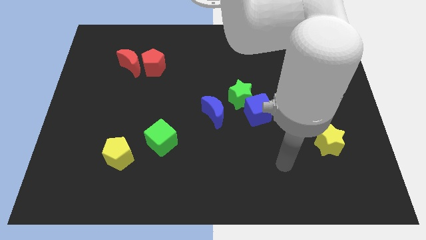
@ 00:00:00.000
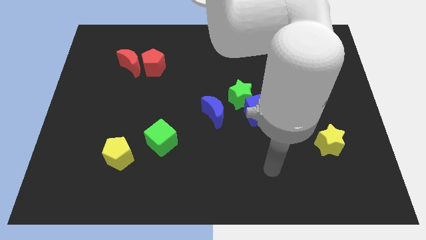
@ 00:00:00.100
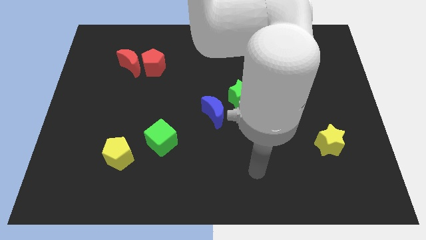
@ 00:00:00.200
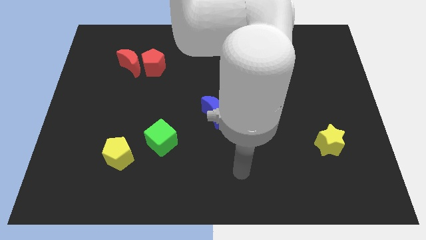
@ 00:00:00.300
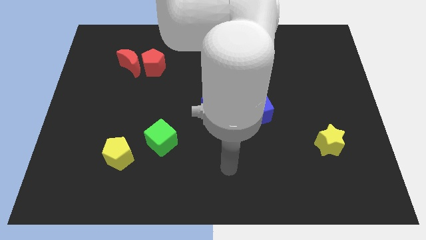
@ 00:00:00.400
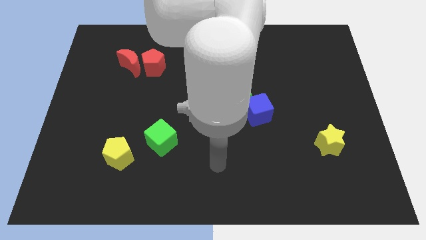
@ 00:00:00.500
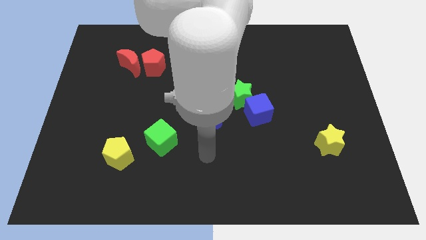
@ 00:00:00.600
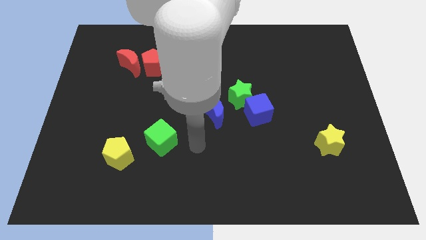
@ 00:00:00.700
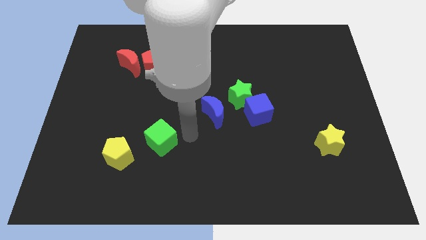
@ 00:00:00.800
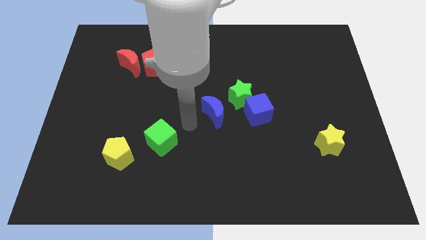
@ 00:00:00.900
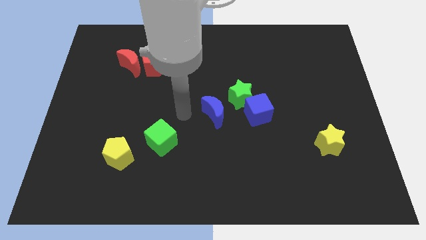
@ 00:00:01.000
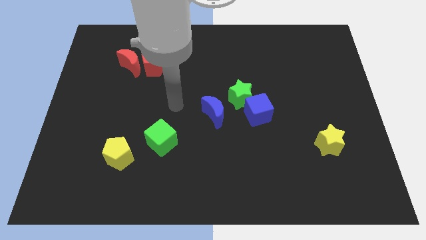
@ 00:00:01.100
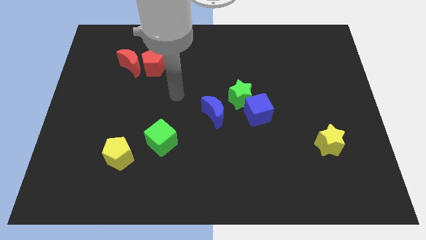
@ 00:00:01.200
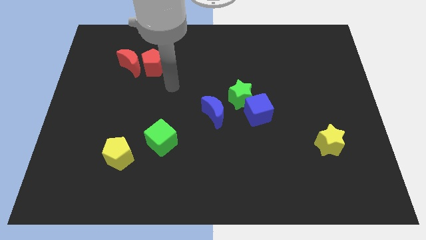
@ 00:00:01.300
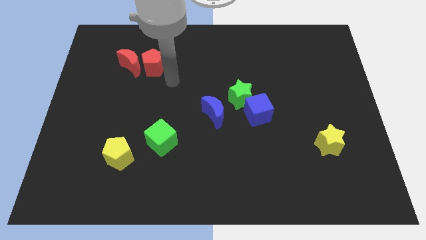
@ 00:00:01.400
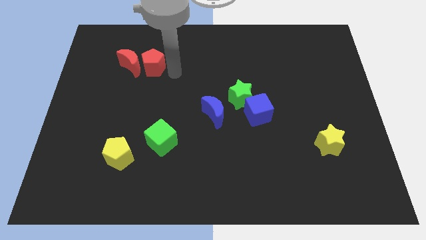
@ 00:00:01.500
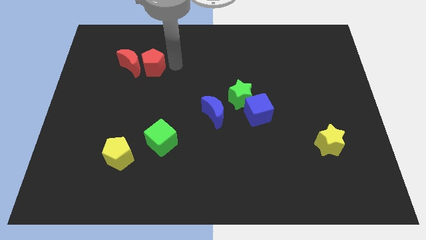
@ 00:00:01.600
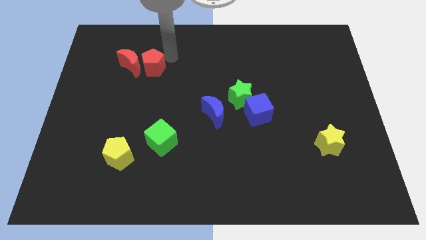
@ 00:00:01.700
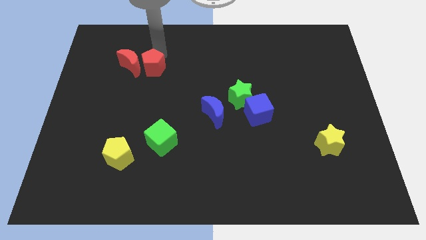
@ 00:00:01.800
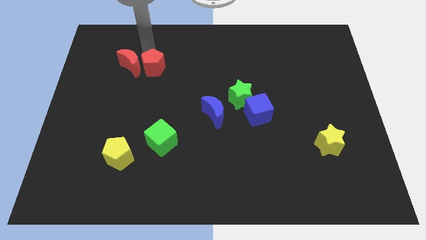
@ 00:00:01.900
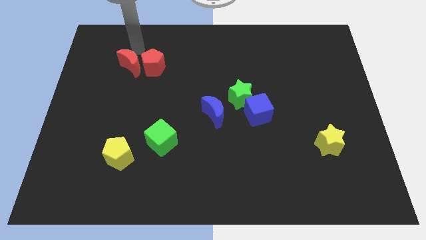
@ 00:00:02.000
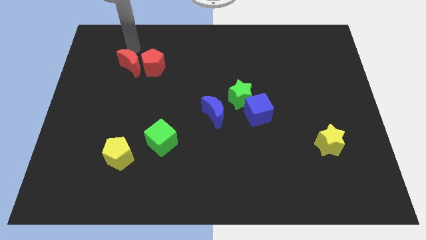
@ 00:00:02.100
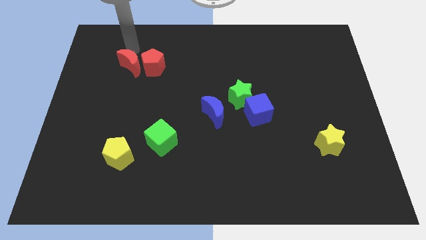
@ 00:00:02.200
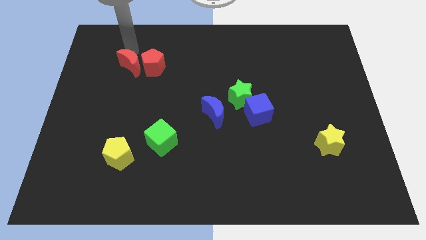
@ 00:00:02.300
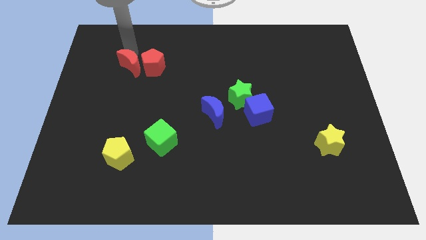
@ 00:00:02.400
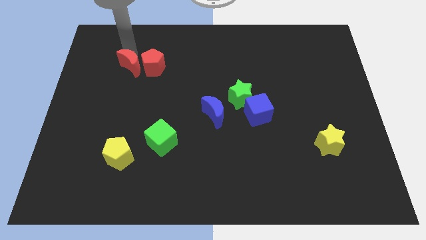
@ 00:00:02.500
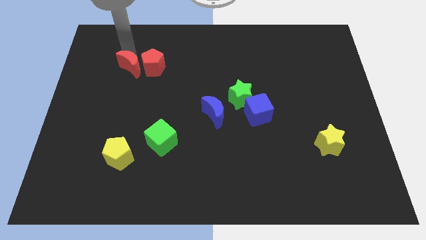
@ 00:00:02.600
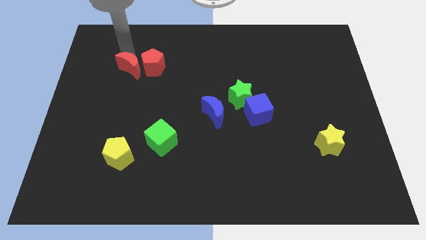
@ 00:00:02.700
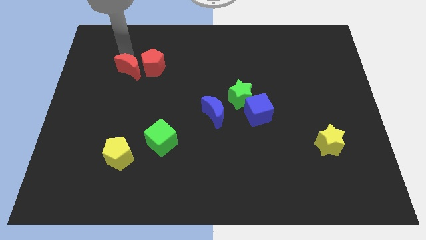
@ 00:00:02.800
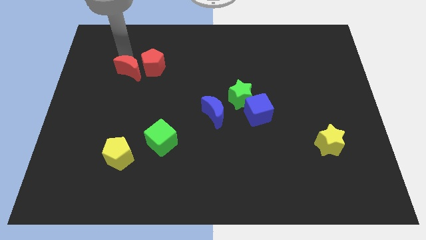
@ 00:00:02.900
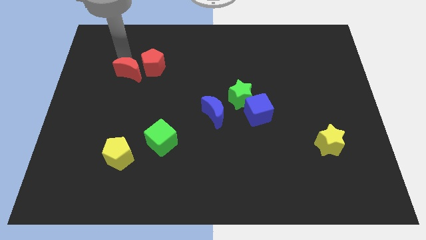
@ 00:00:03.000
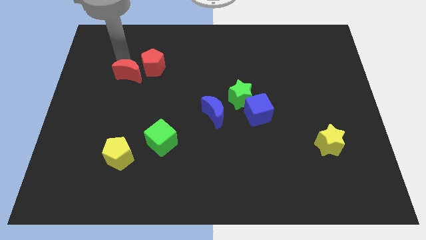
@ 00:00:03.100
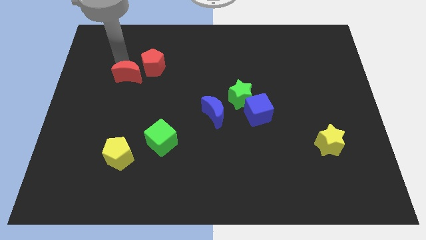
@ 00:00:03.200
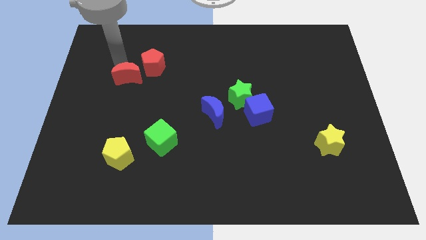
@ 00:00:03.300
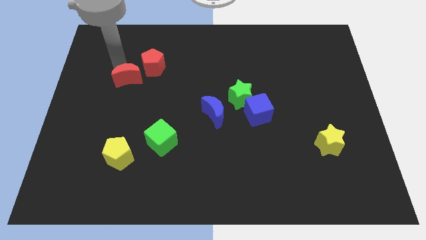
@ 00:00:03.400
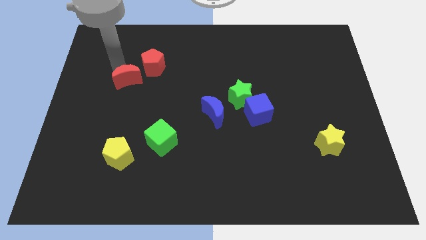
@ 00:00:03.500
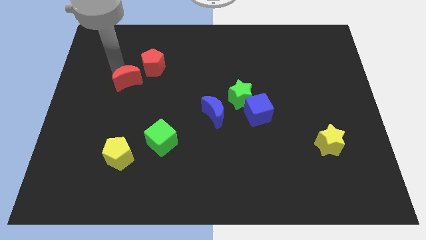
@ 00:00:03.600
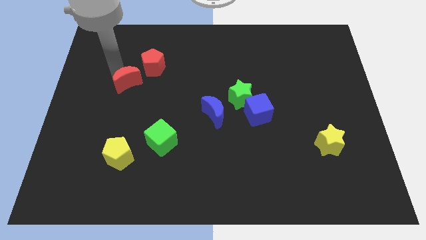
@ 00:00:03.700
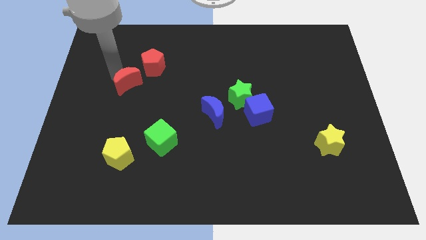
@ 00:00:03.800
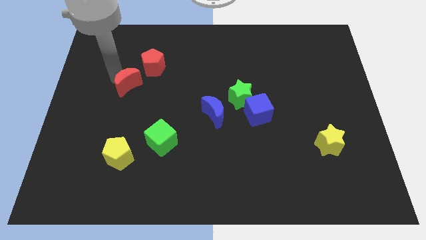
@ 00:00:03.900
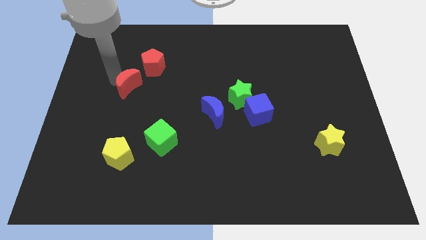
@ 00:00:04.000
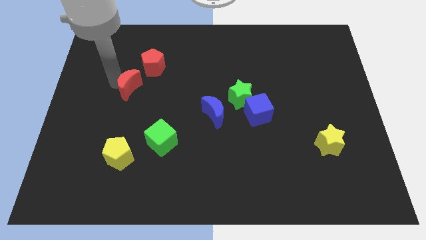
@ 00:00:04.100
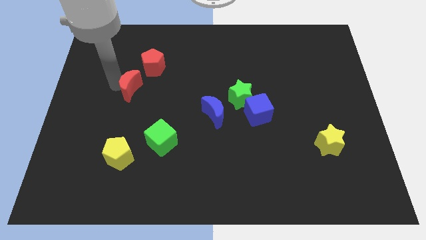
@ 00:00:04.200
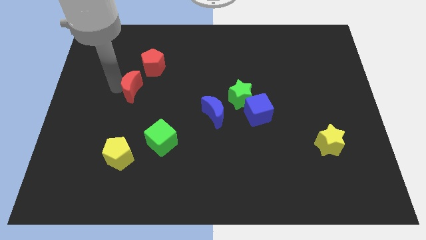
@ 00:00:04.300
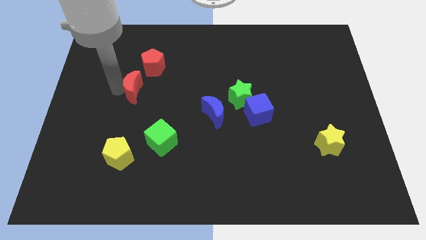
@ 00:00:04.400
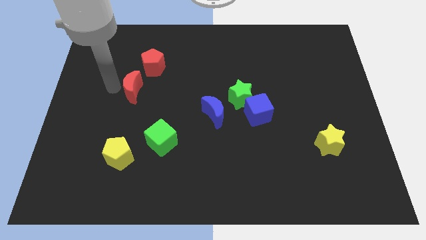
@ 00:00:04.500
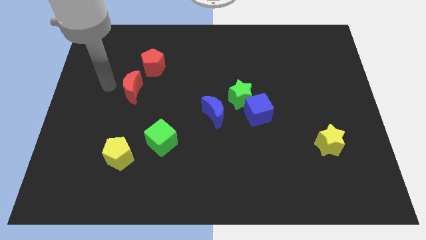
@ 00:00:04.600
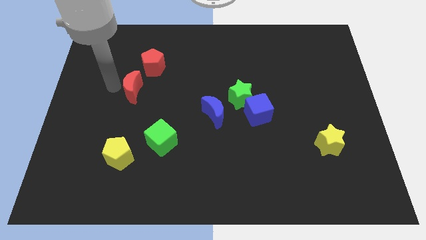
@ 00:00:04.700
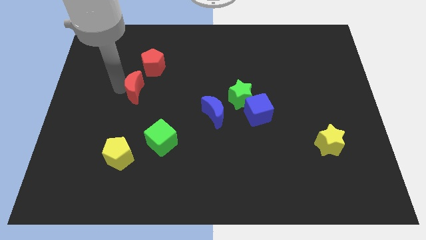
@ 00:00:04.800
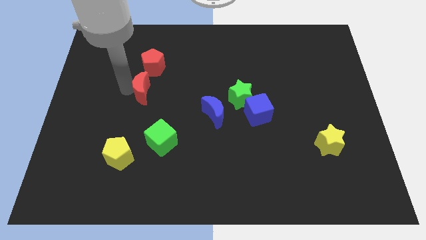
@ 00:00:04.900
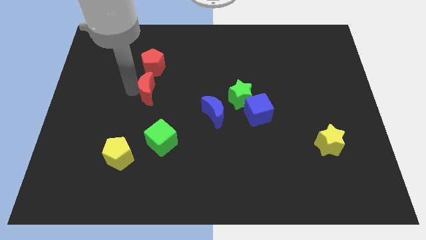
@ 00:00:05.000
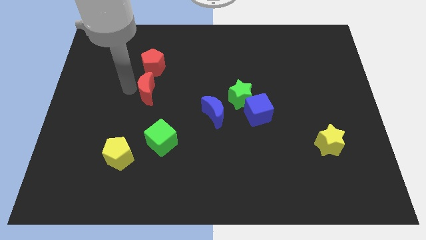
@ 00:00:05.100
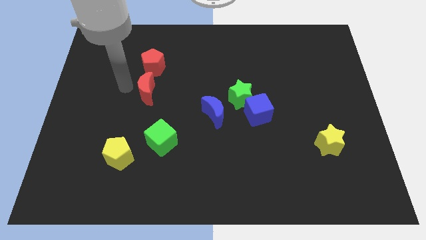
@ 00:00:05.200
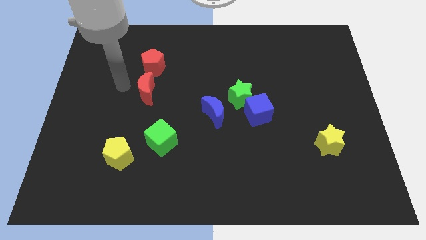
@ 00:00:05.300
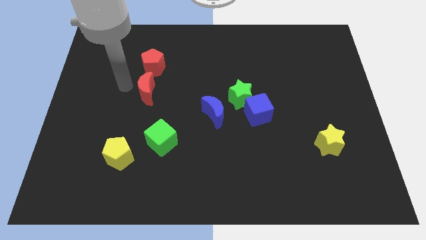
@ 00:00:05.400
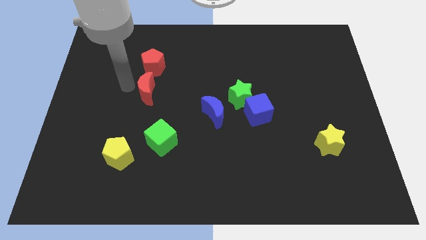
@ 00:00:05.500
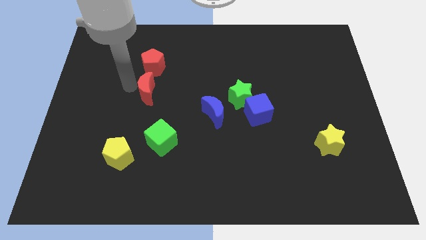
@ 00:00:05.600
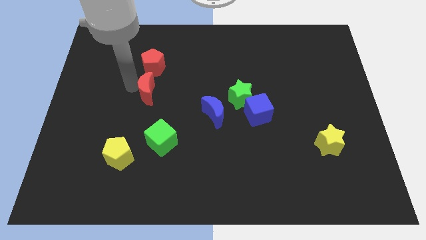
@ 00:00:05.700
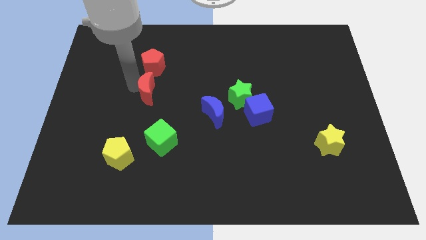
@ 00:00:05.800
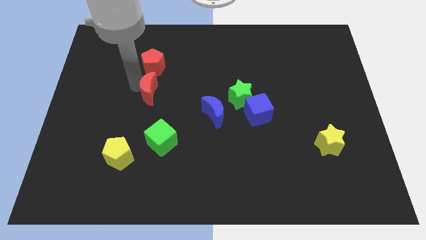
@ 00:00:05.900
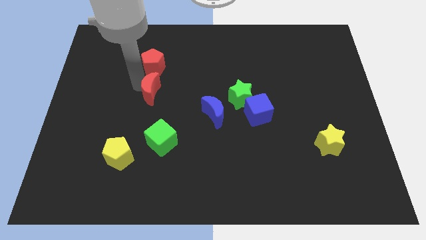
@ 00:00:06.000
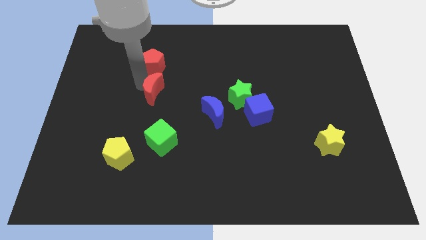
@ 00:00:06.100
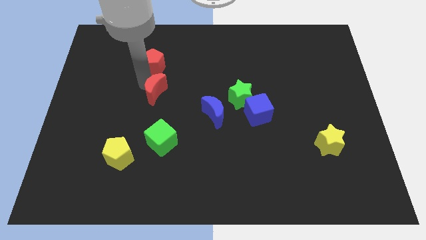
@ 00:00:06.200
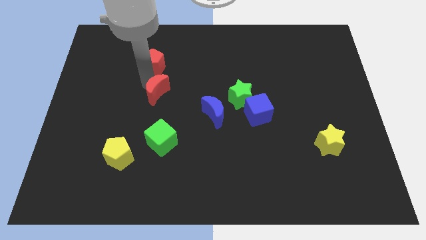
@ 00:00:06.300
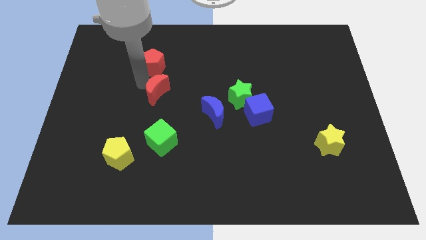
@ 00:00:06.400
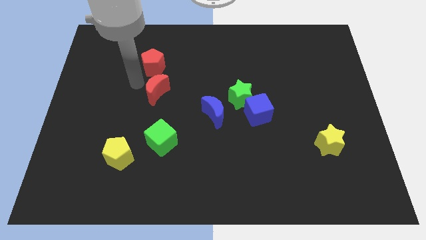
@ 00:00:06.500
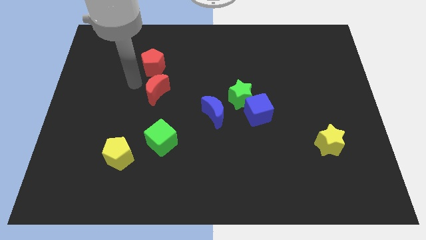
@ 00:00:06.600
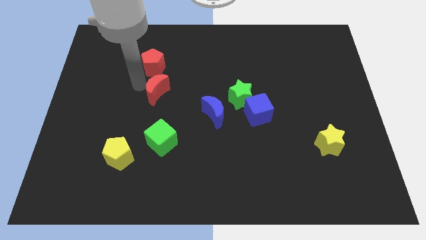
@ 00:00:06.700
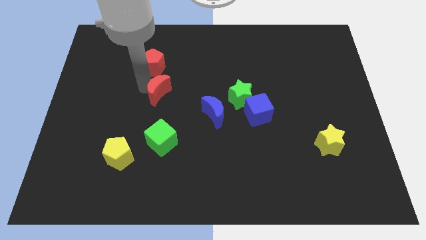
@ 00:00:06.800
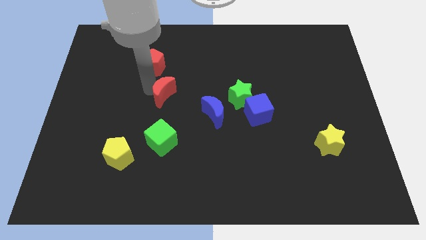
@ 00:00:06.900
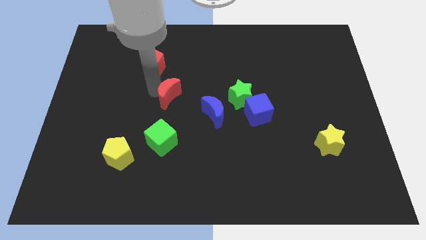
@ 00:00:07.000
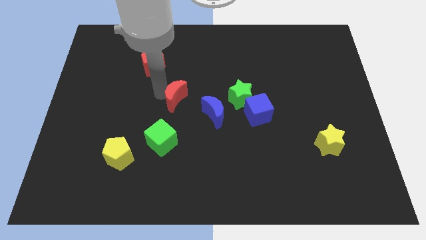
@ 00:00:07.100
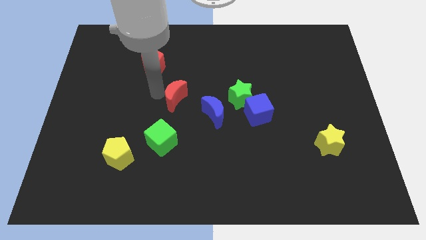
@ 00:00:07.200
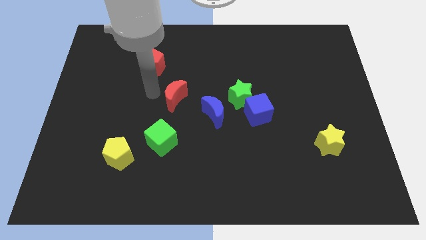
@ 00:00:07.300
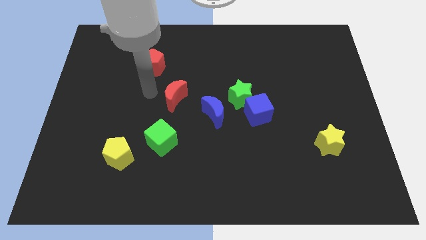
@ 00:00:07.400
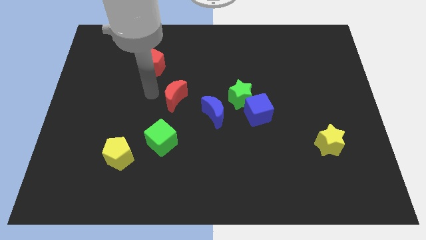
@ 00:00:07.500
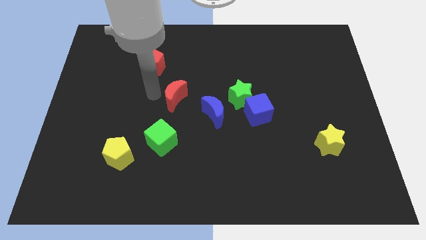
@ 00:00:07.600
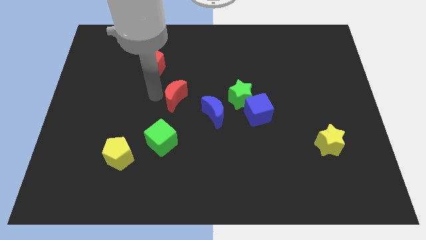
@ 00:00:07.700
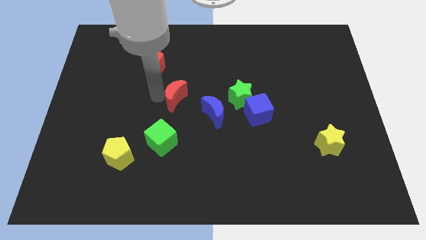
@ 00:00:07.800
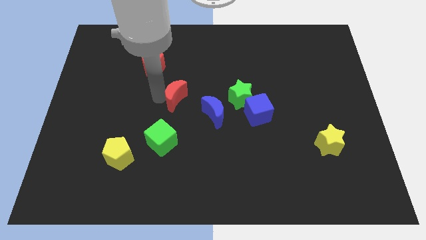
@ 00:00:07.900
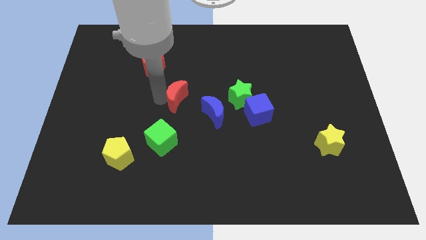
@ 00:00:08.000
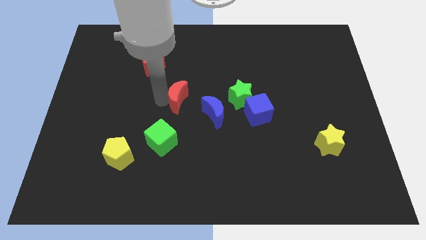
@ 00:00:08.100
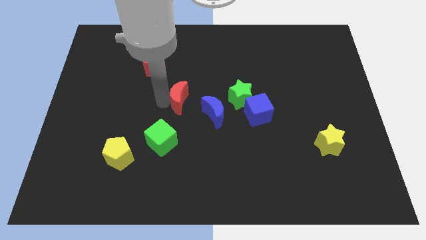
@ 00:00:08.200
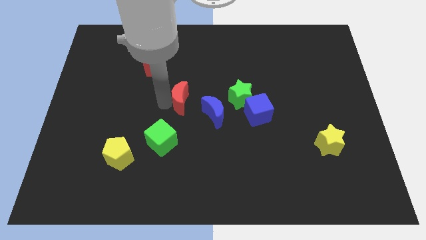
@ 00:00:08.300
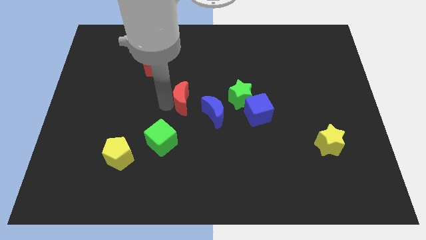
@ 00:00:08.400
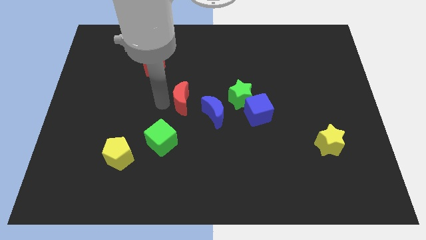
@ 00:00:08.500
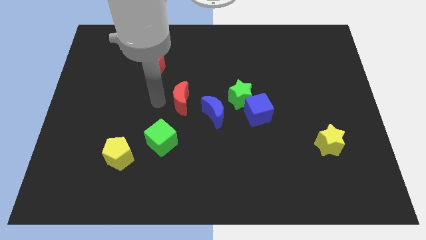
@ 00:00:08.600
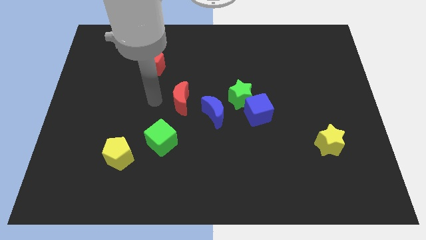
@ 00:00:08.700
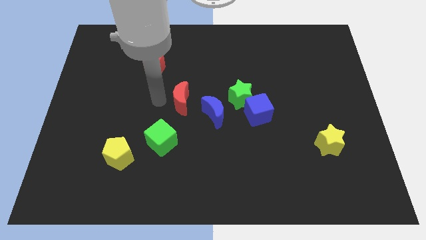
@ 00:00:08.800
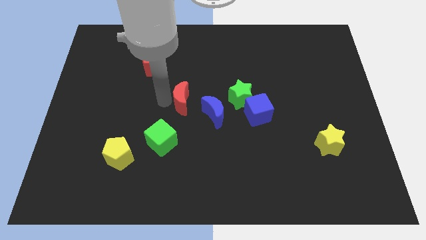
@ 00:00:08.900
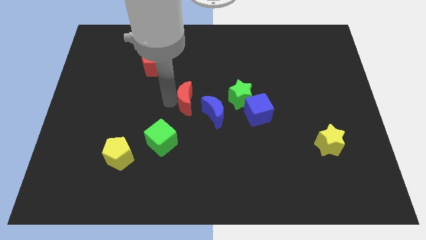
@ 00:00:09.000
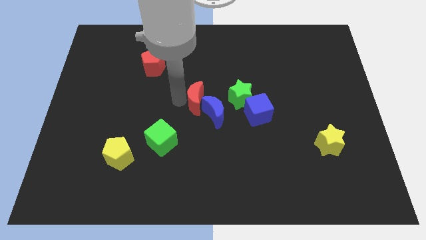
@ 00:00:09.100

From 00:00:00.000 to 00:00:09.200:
slide the red moon towards the blue moon
